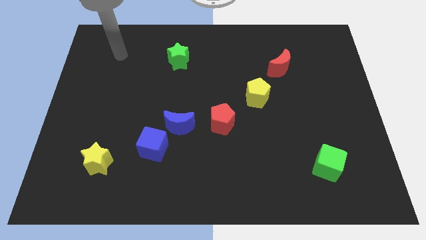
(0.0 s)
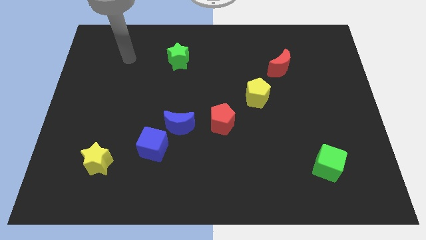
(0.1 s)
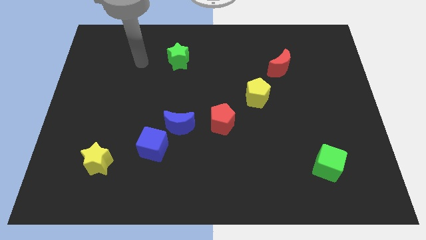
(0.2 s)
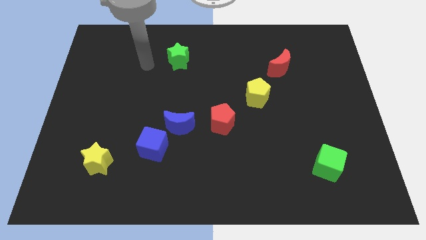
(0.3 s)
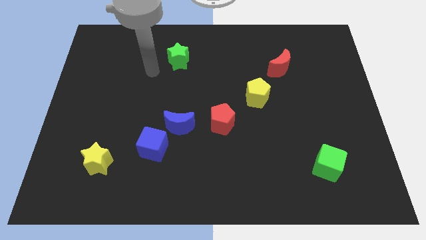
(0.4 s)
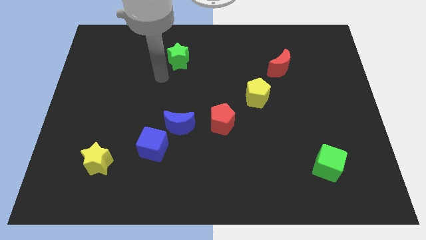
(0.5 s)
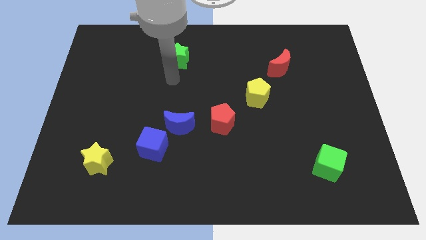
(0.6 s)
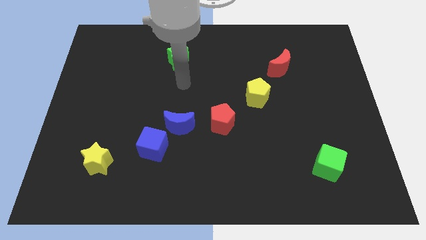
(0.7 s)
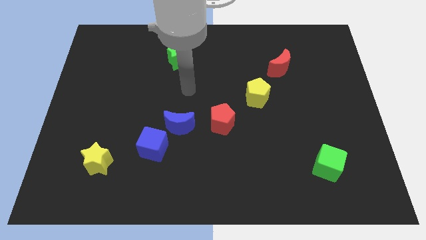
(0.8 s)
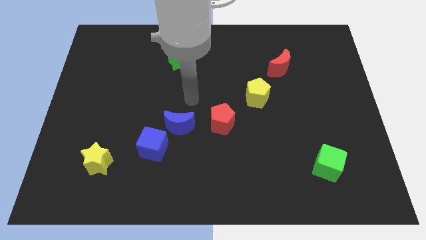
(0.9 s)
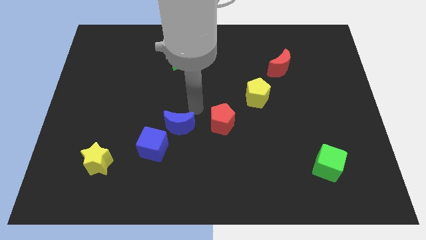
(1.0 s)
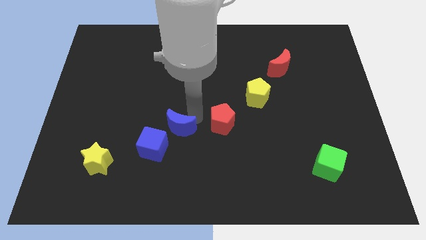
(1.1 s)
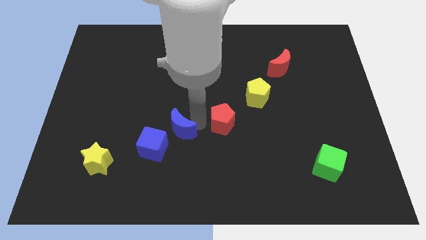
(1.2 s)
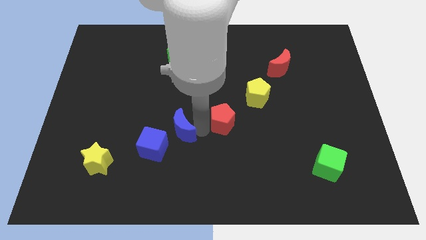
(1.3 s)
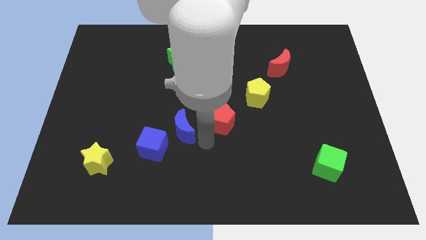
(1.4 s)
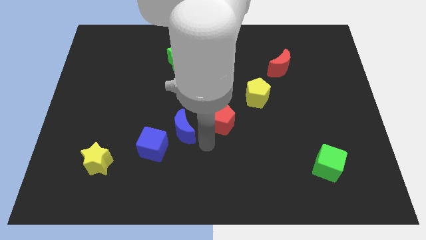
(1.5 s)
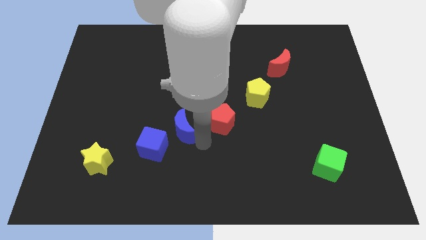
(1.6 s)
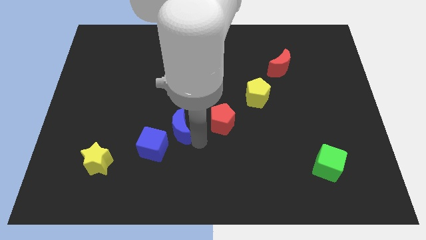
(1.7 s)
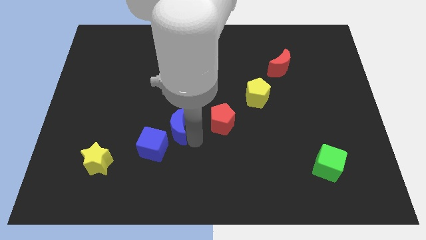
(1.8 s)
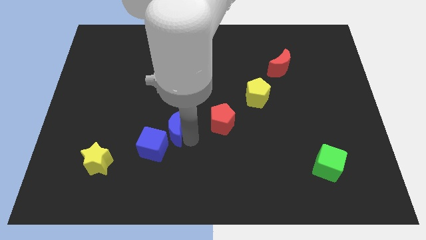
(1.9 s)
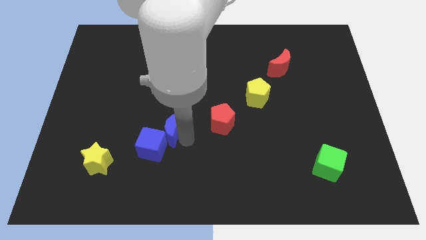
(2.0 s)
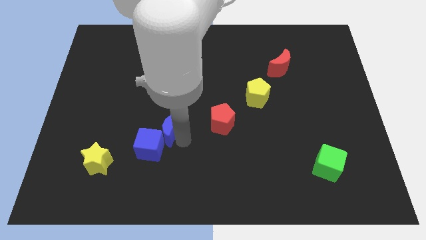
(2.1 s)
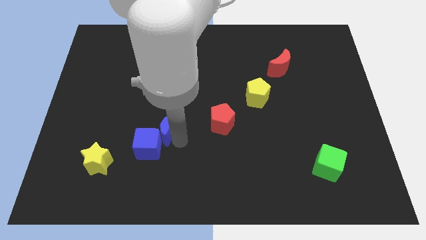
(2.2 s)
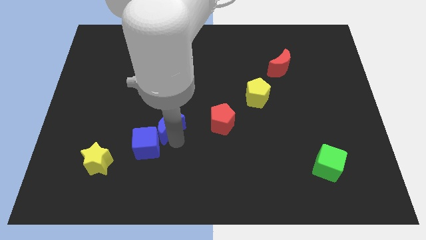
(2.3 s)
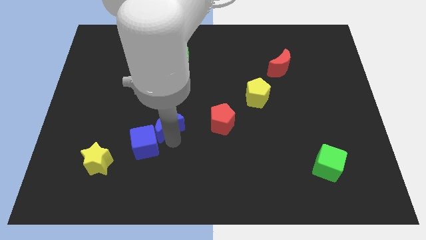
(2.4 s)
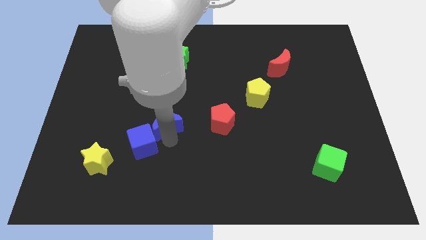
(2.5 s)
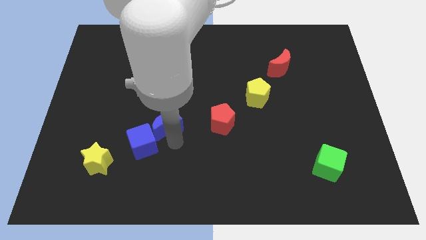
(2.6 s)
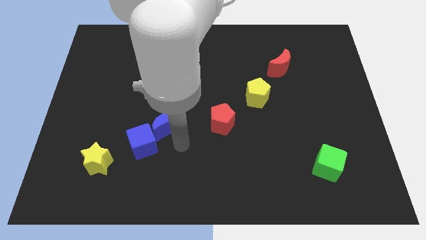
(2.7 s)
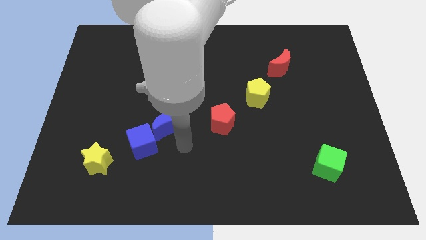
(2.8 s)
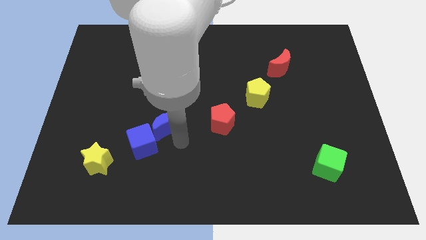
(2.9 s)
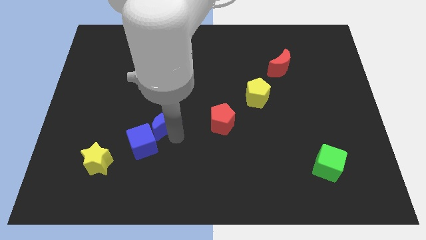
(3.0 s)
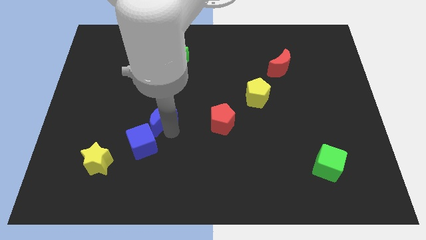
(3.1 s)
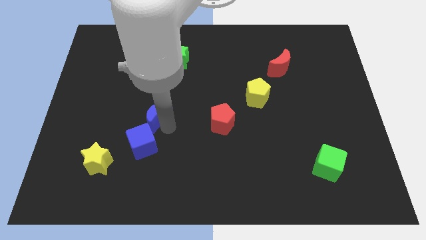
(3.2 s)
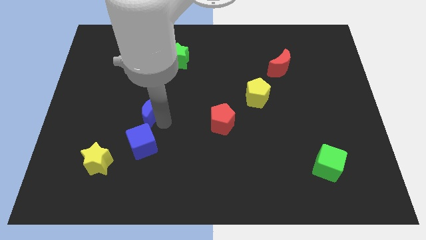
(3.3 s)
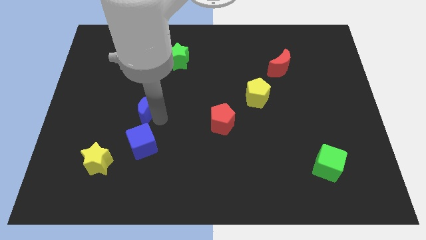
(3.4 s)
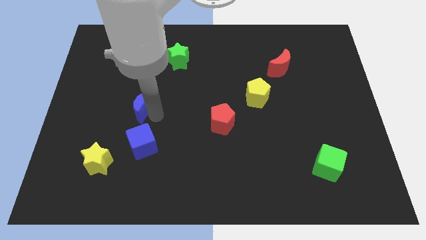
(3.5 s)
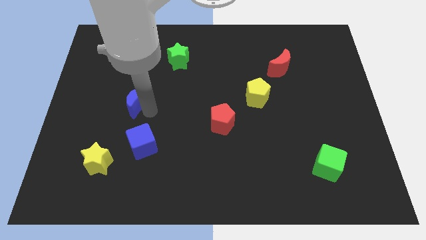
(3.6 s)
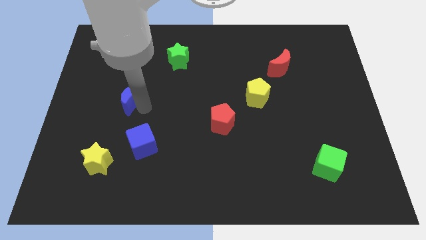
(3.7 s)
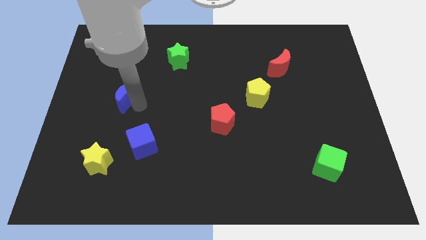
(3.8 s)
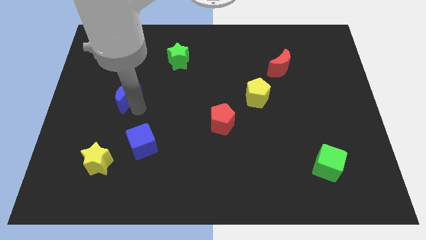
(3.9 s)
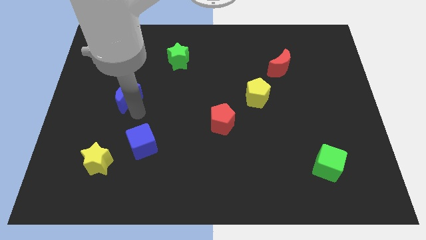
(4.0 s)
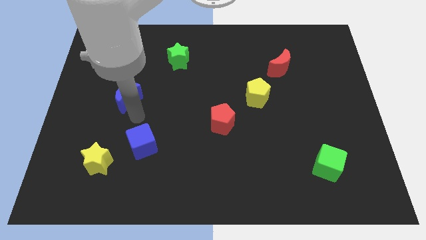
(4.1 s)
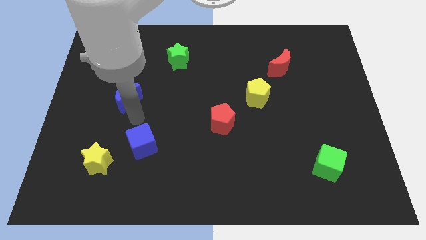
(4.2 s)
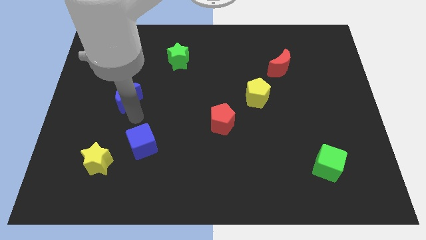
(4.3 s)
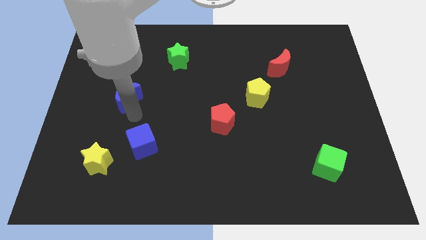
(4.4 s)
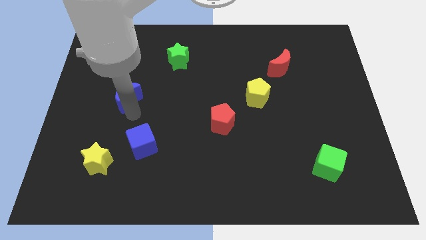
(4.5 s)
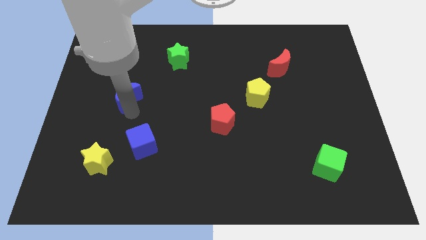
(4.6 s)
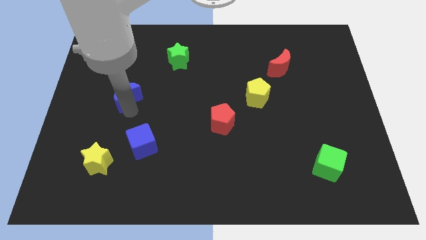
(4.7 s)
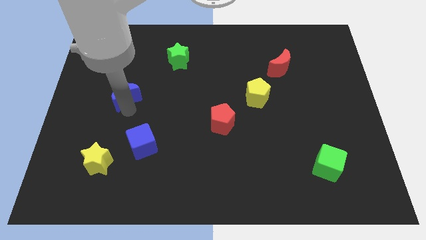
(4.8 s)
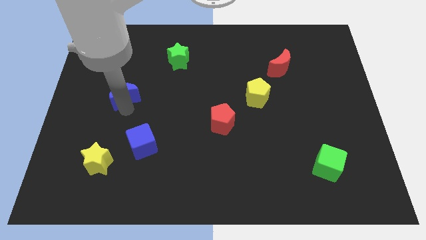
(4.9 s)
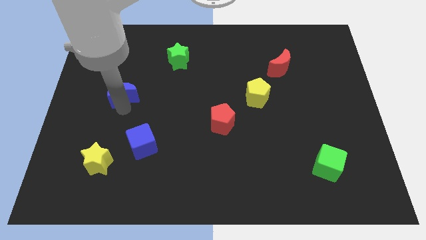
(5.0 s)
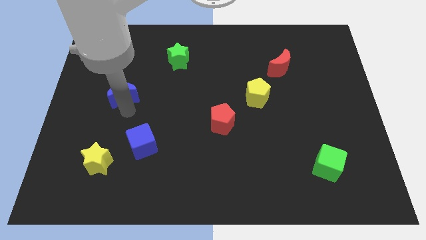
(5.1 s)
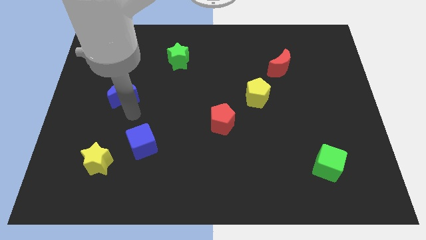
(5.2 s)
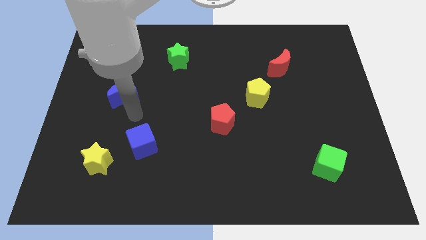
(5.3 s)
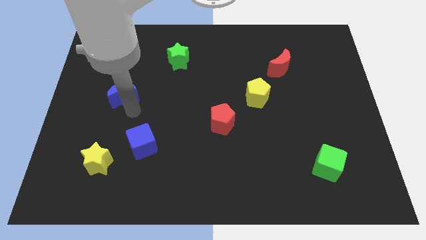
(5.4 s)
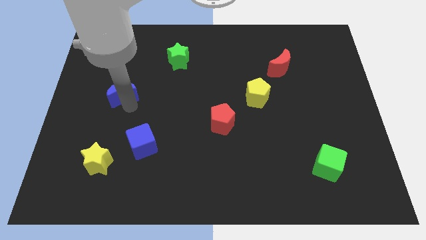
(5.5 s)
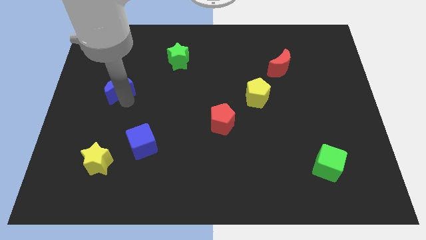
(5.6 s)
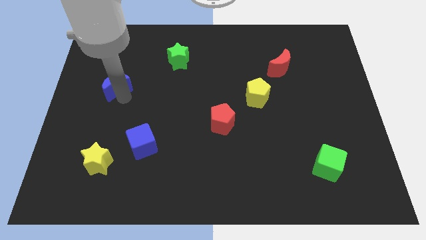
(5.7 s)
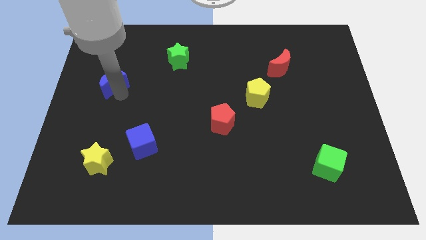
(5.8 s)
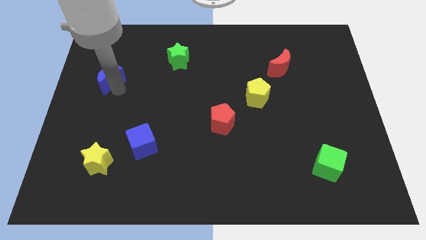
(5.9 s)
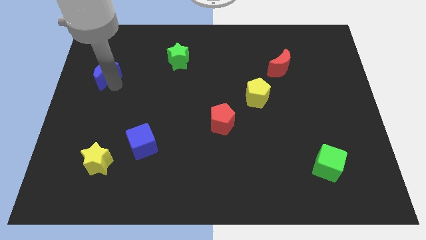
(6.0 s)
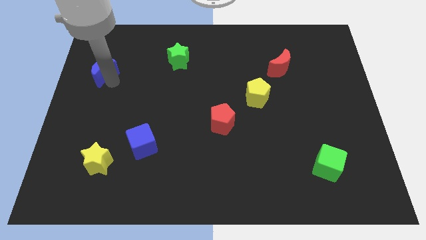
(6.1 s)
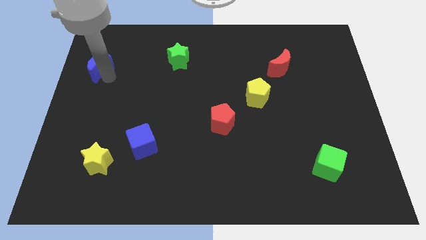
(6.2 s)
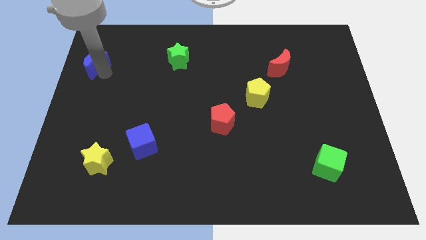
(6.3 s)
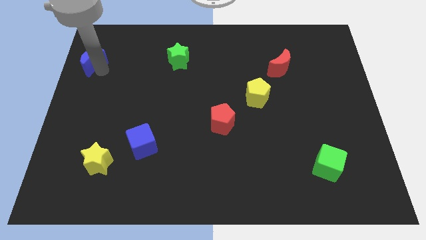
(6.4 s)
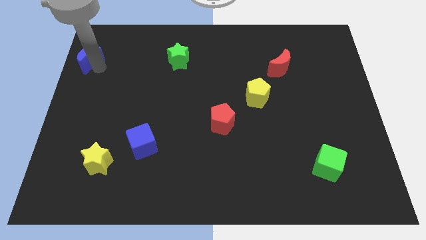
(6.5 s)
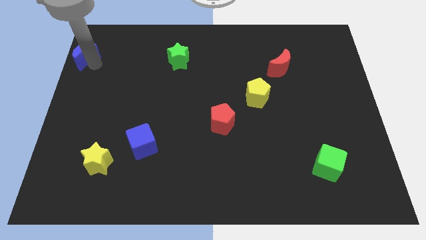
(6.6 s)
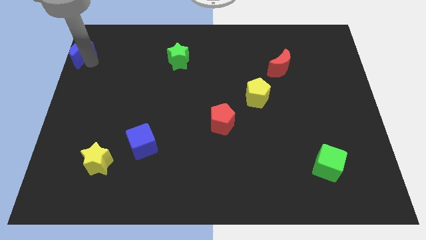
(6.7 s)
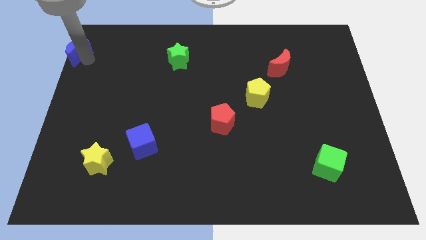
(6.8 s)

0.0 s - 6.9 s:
slide the blue moon to the upper left corner
